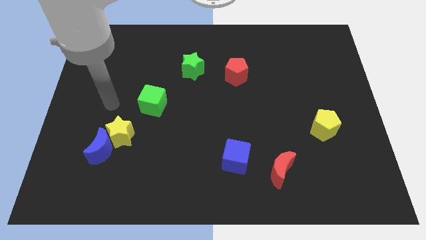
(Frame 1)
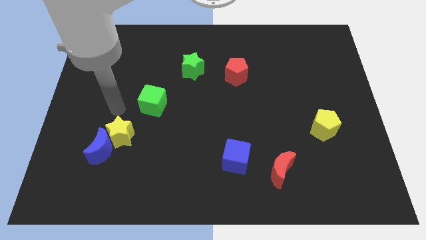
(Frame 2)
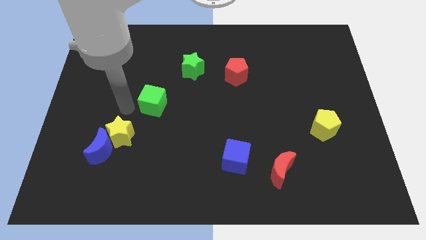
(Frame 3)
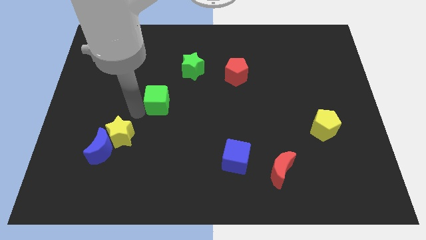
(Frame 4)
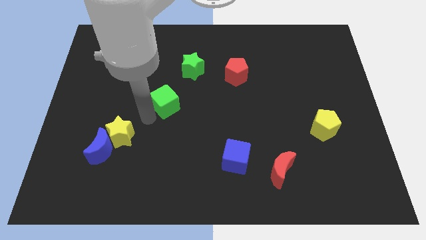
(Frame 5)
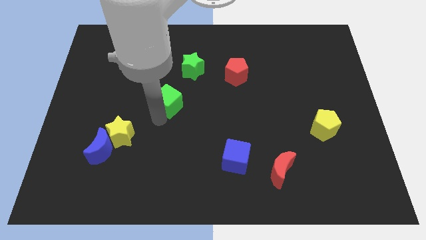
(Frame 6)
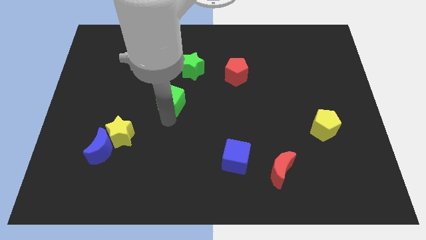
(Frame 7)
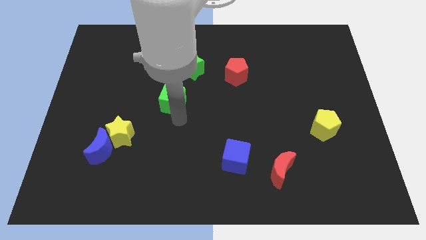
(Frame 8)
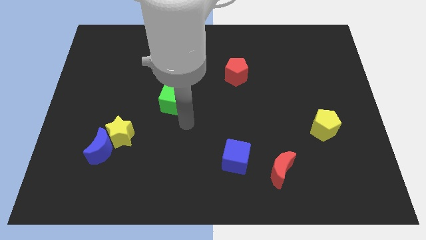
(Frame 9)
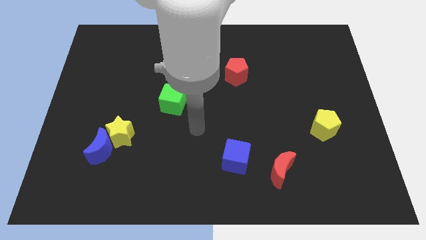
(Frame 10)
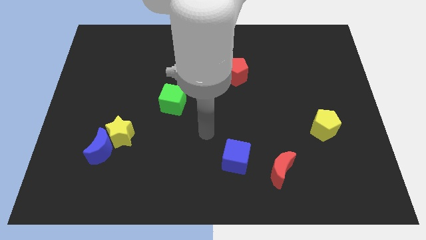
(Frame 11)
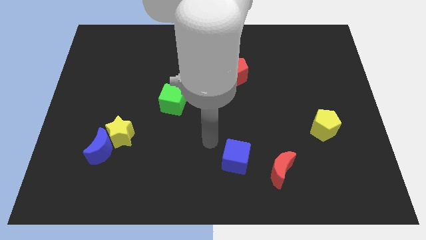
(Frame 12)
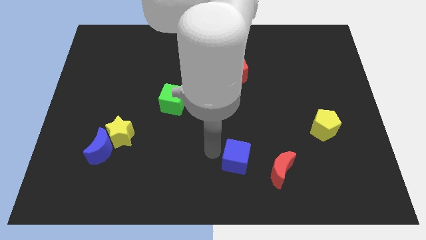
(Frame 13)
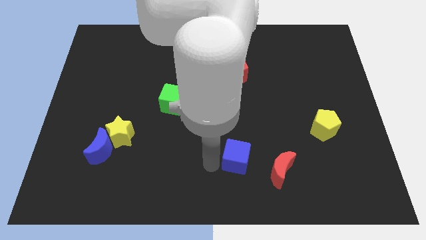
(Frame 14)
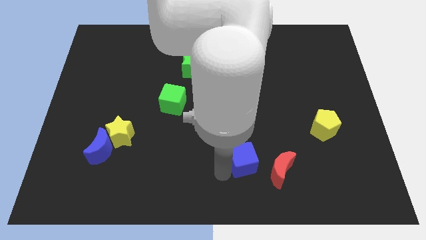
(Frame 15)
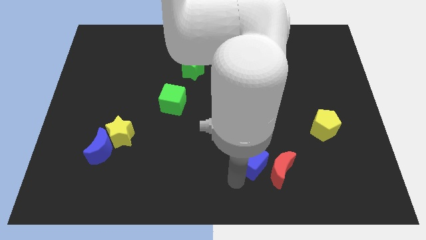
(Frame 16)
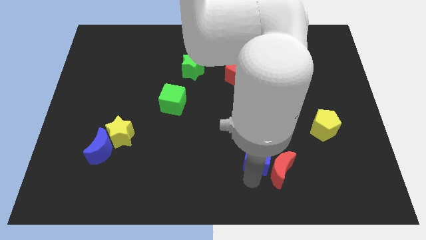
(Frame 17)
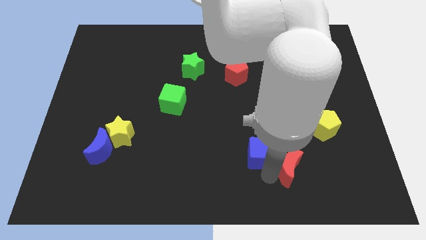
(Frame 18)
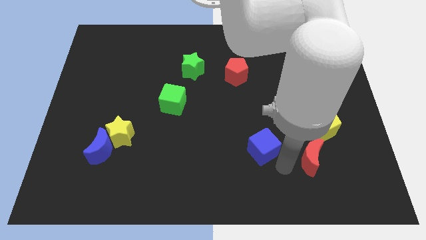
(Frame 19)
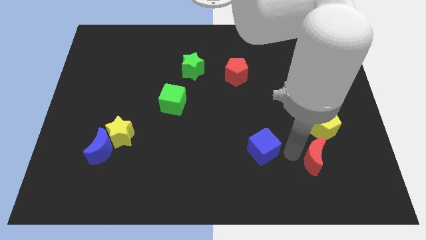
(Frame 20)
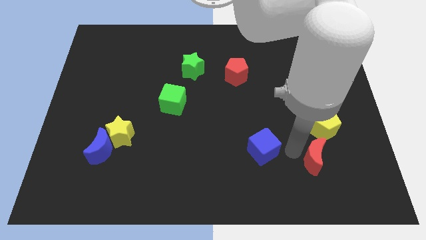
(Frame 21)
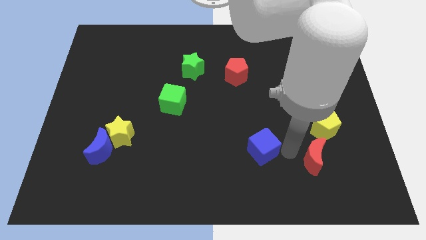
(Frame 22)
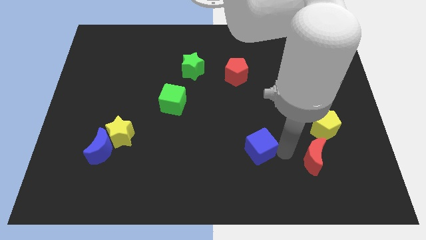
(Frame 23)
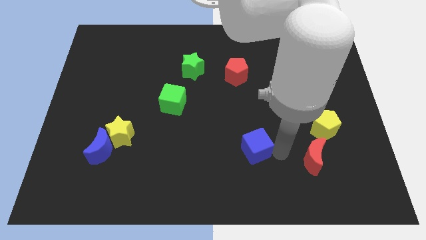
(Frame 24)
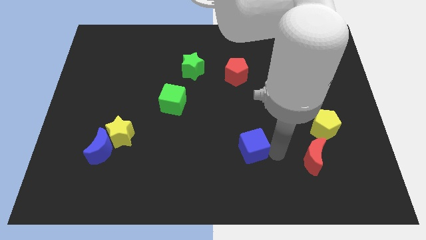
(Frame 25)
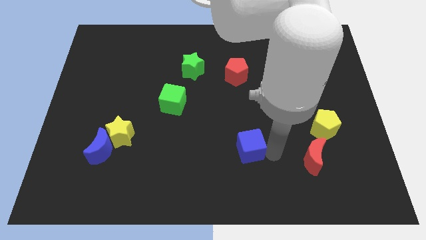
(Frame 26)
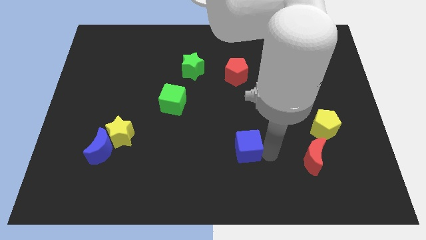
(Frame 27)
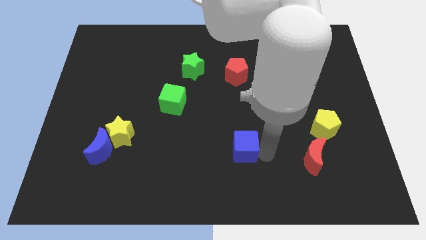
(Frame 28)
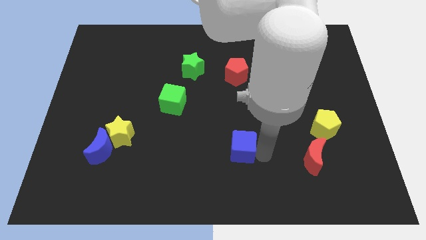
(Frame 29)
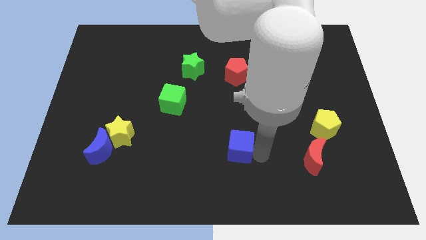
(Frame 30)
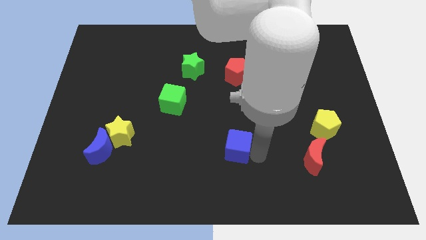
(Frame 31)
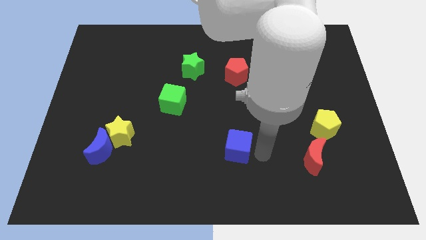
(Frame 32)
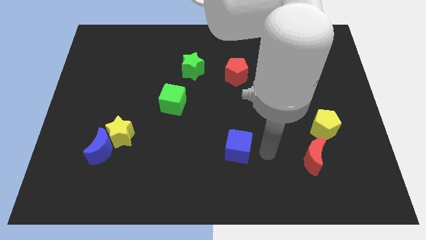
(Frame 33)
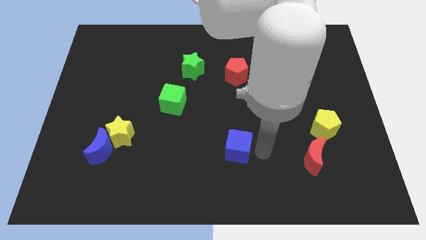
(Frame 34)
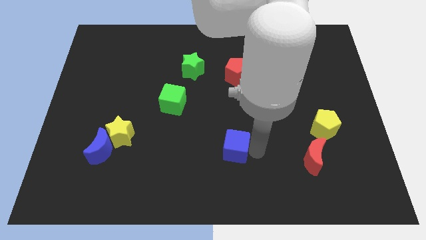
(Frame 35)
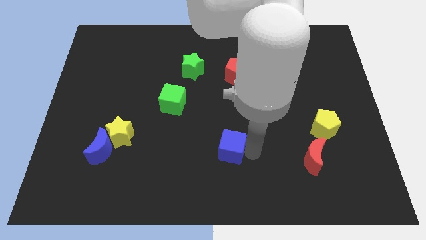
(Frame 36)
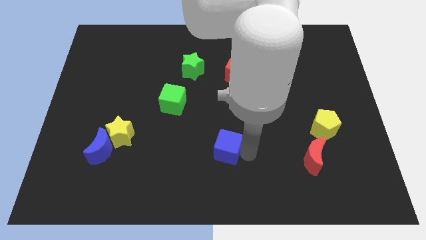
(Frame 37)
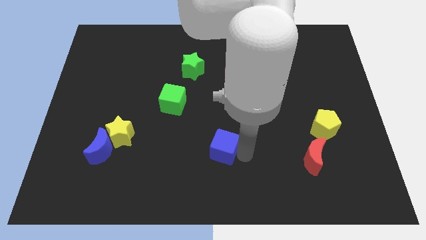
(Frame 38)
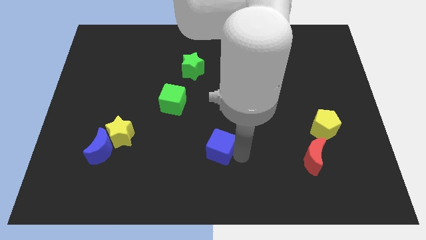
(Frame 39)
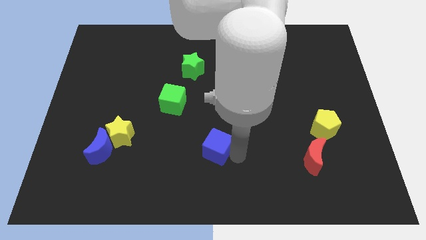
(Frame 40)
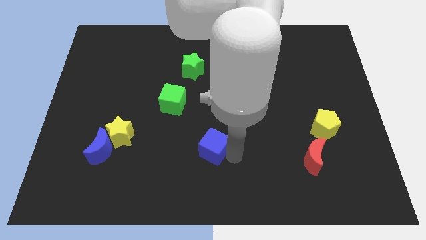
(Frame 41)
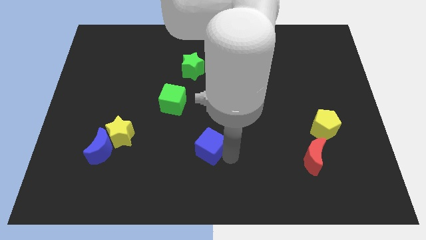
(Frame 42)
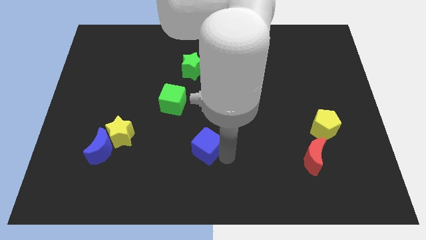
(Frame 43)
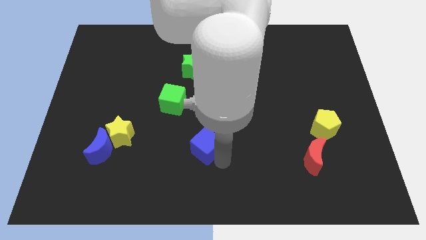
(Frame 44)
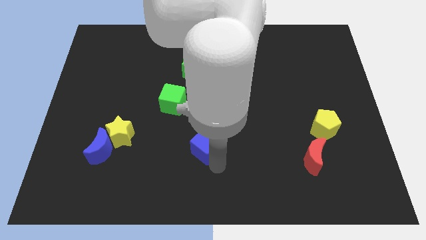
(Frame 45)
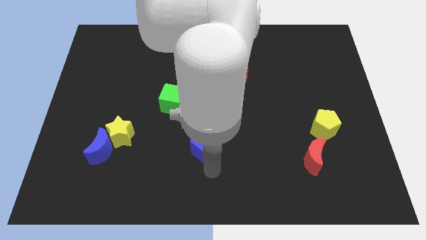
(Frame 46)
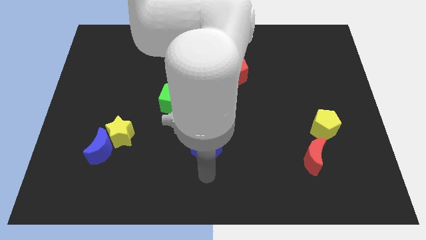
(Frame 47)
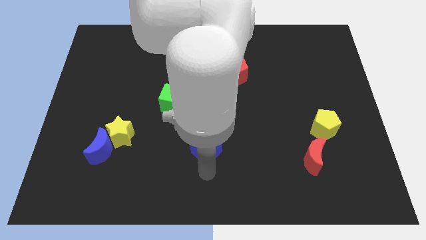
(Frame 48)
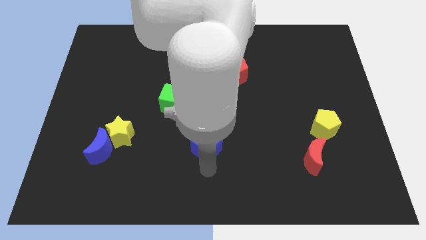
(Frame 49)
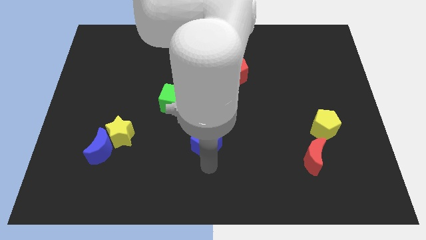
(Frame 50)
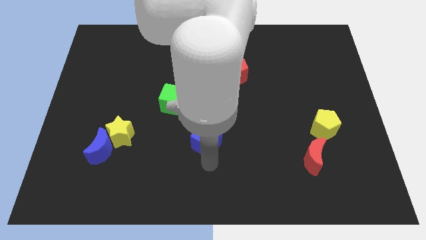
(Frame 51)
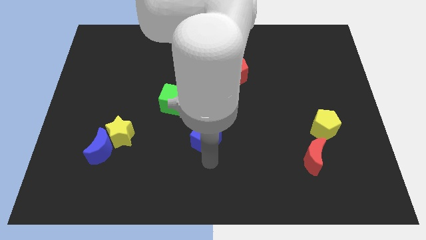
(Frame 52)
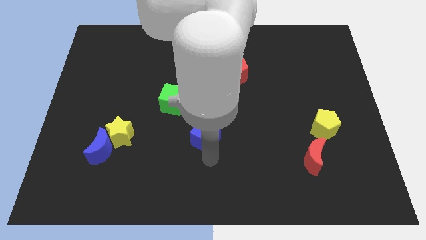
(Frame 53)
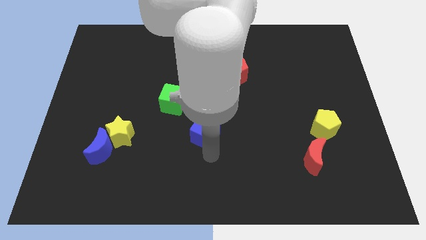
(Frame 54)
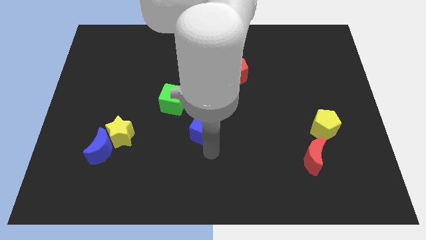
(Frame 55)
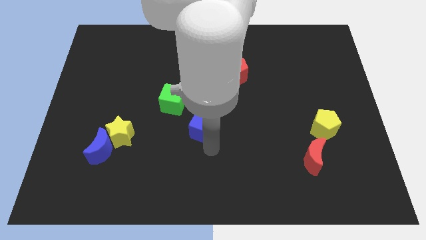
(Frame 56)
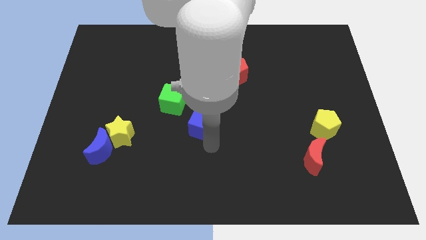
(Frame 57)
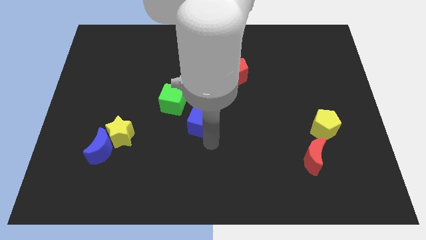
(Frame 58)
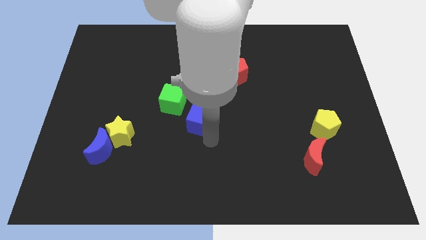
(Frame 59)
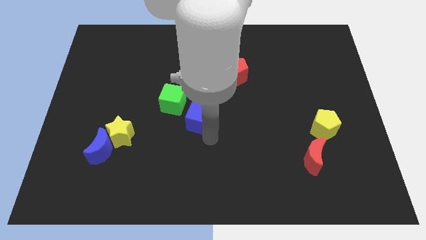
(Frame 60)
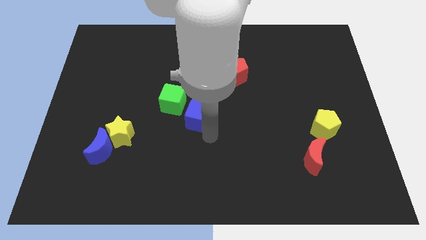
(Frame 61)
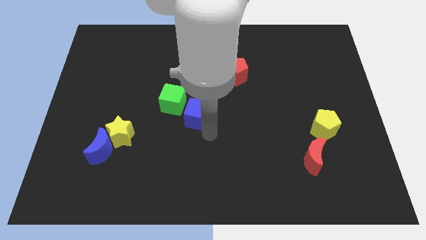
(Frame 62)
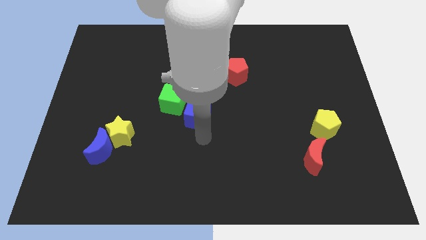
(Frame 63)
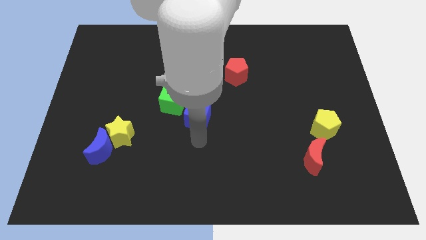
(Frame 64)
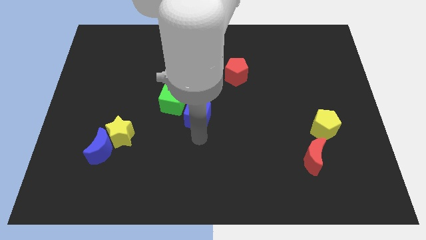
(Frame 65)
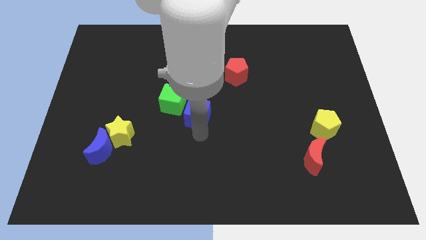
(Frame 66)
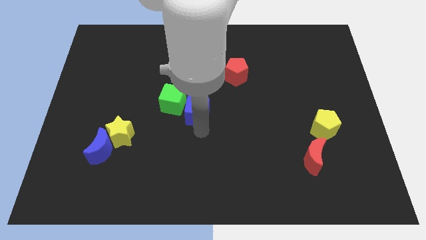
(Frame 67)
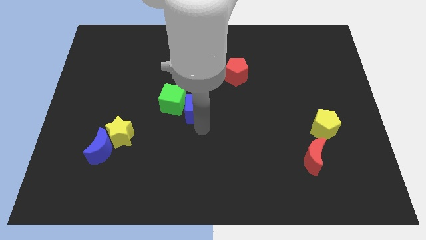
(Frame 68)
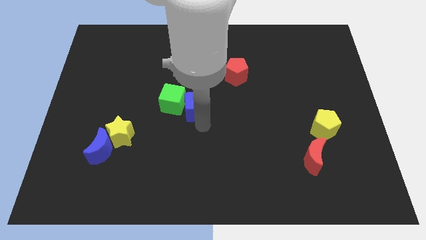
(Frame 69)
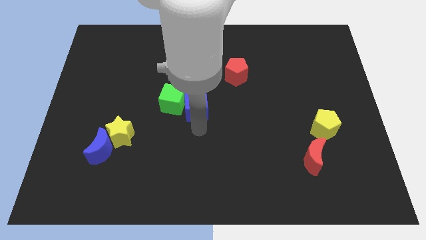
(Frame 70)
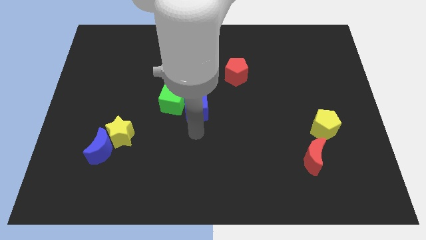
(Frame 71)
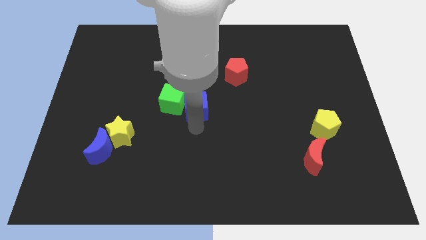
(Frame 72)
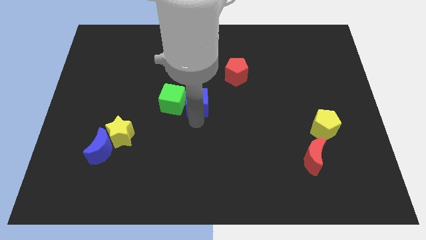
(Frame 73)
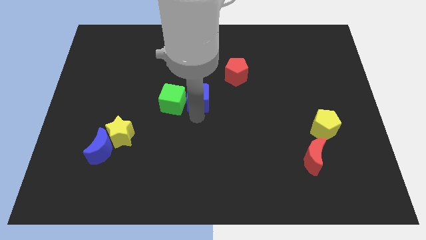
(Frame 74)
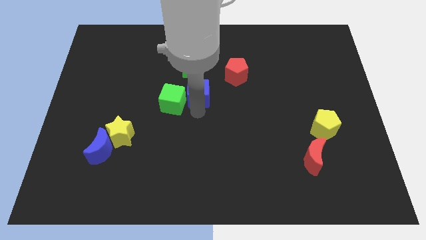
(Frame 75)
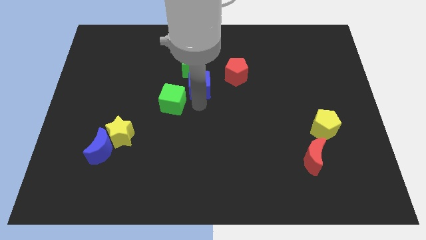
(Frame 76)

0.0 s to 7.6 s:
put the blue cube towards the green star
